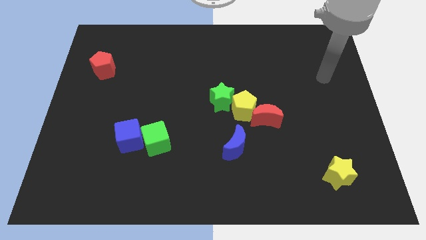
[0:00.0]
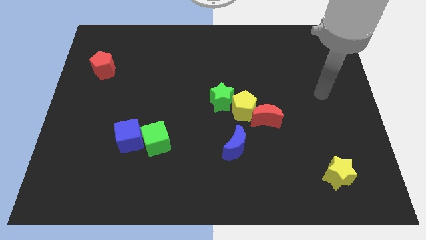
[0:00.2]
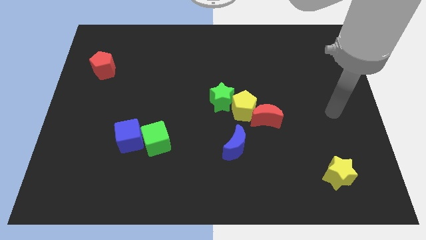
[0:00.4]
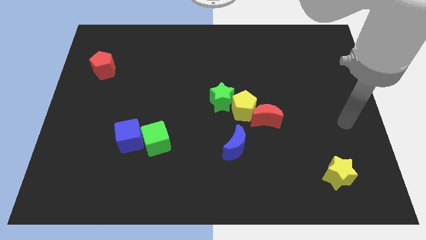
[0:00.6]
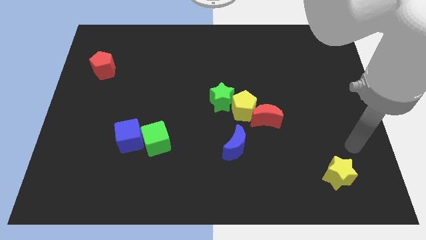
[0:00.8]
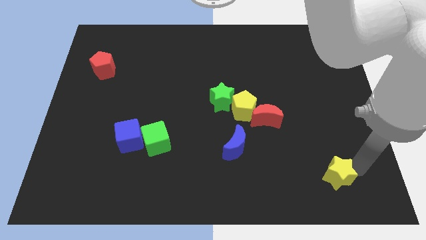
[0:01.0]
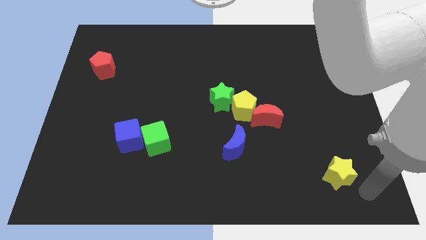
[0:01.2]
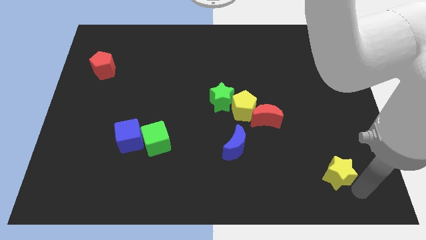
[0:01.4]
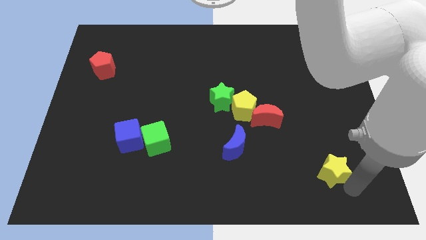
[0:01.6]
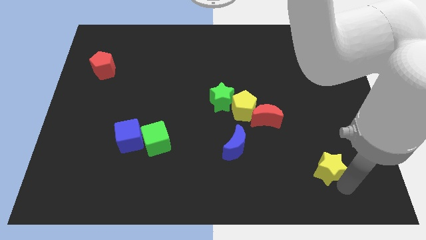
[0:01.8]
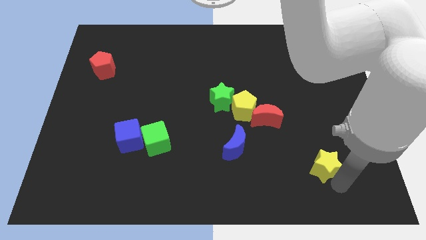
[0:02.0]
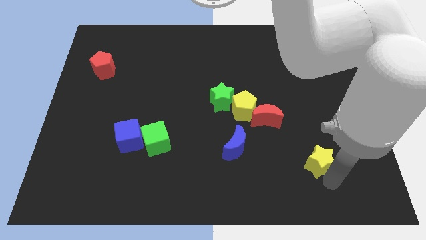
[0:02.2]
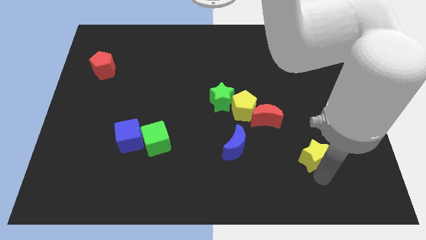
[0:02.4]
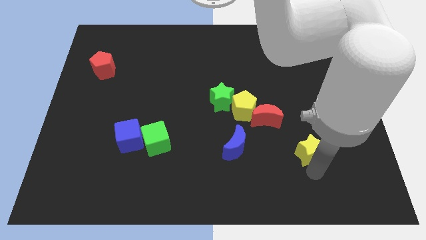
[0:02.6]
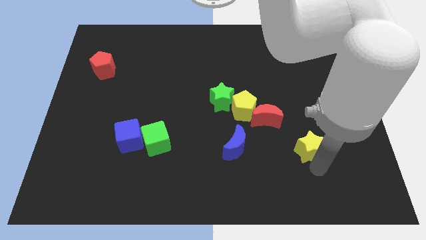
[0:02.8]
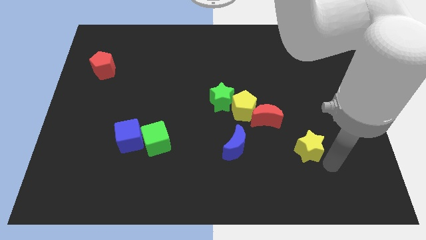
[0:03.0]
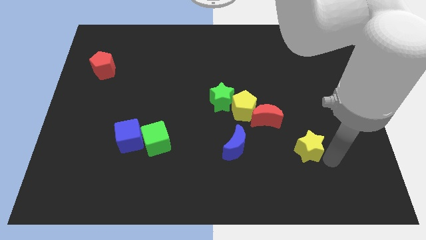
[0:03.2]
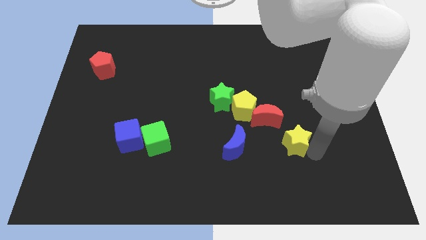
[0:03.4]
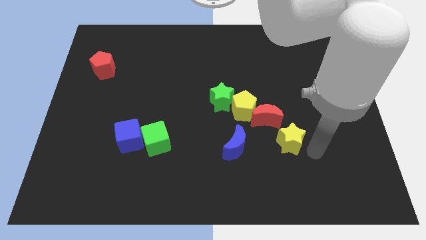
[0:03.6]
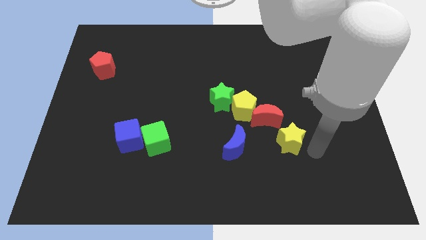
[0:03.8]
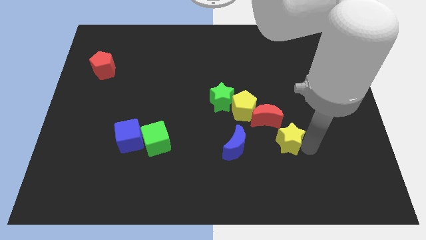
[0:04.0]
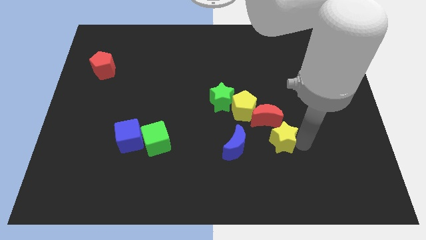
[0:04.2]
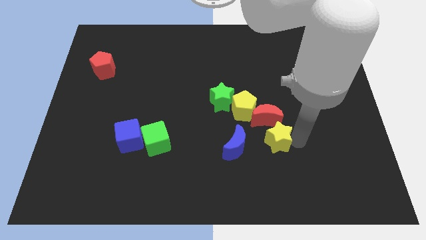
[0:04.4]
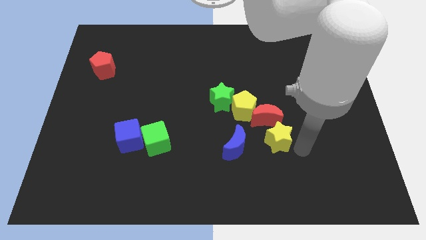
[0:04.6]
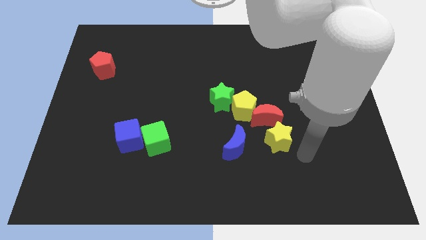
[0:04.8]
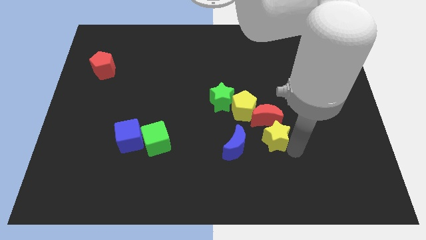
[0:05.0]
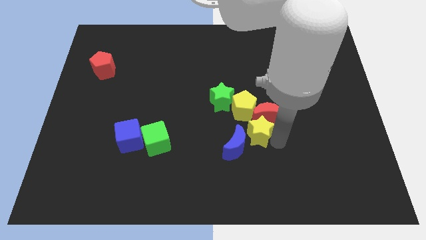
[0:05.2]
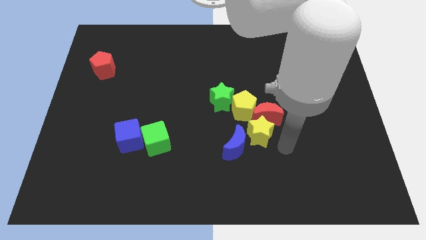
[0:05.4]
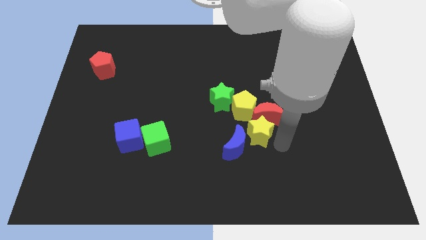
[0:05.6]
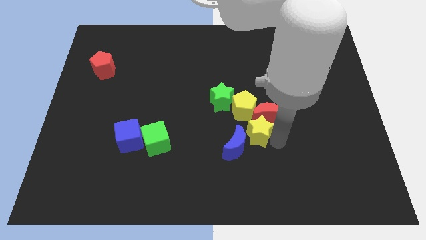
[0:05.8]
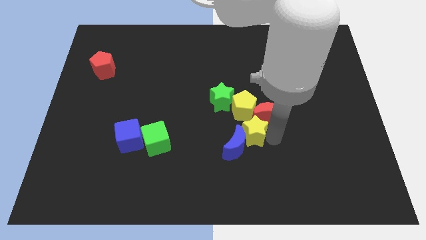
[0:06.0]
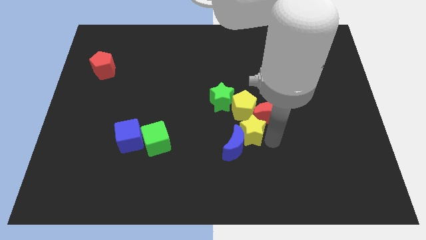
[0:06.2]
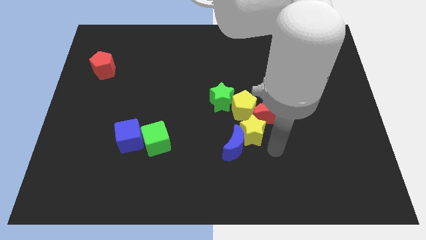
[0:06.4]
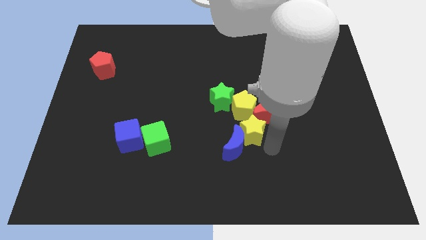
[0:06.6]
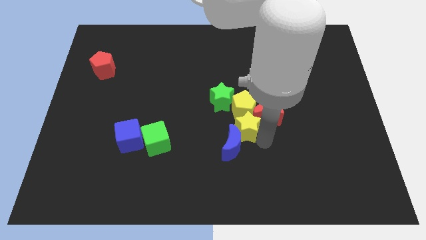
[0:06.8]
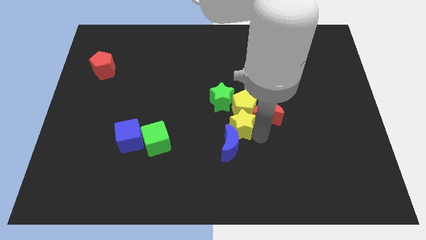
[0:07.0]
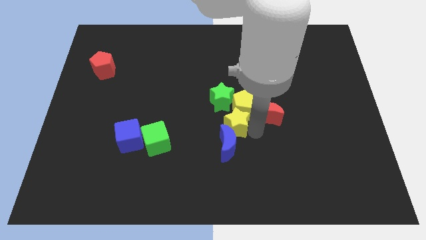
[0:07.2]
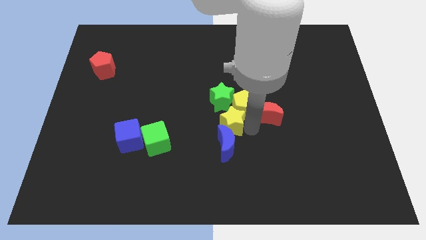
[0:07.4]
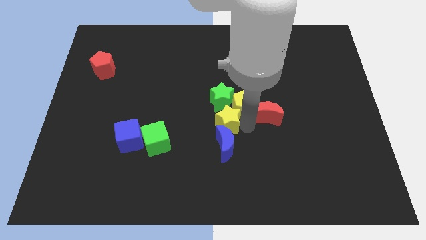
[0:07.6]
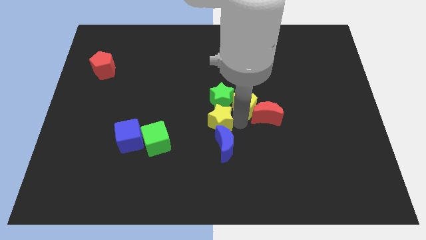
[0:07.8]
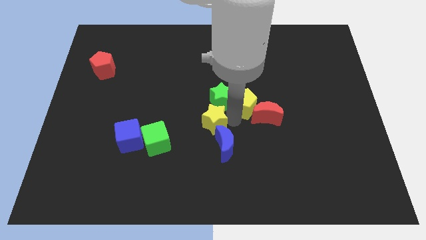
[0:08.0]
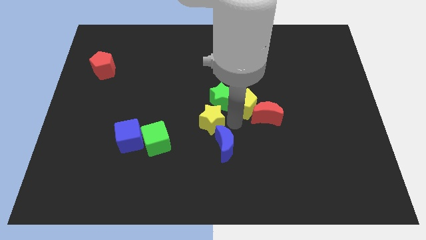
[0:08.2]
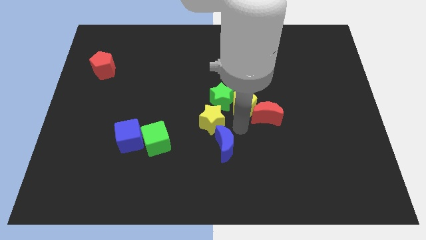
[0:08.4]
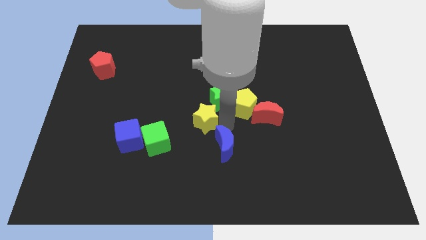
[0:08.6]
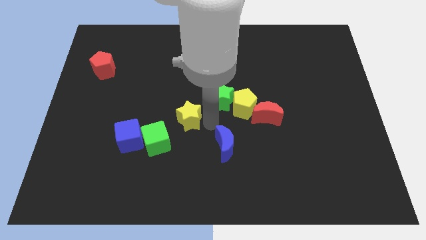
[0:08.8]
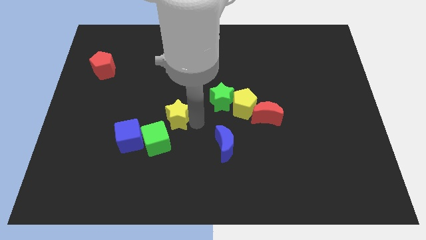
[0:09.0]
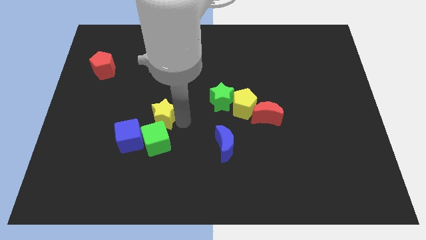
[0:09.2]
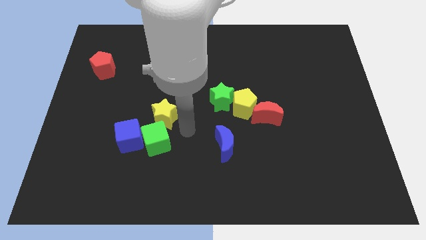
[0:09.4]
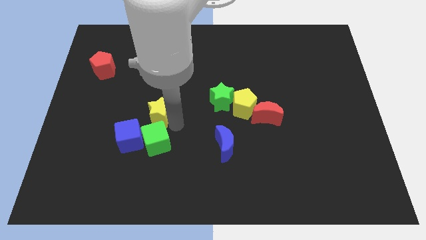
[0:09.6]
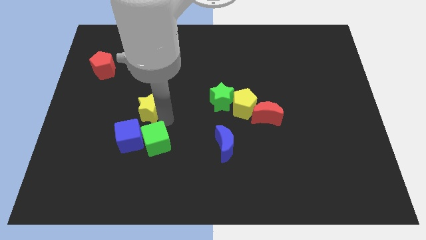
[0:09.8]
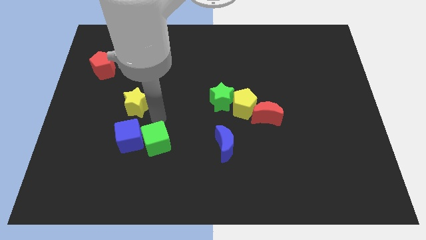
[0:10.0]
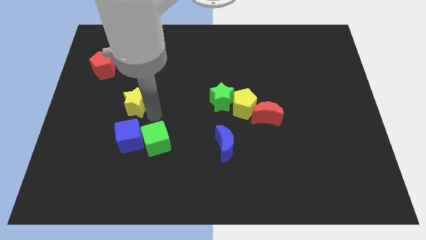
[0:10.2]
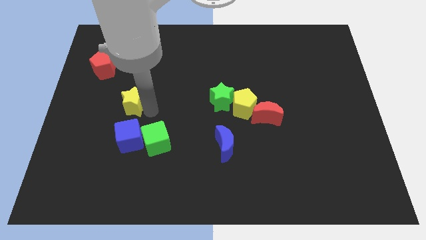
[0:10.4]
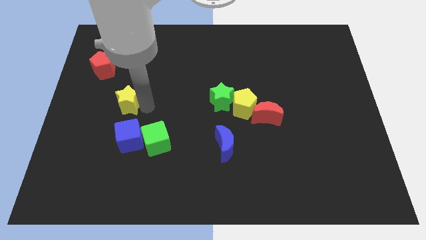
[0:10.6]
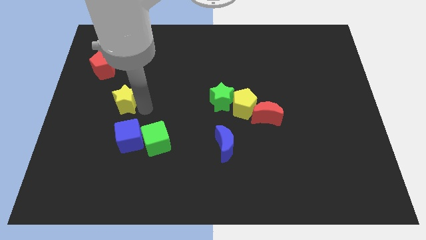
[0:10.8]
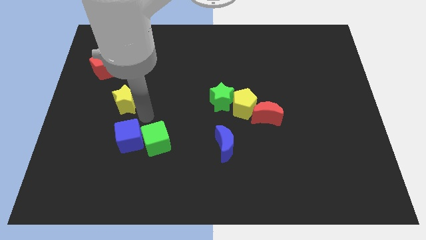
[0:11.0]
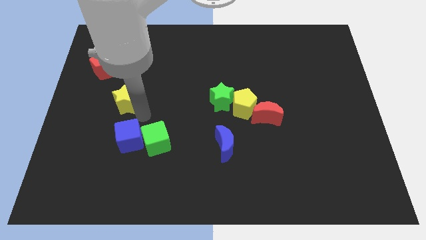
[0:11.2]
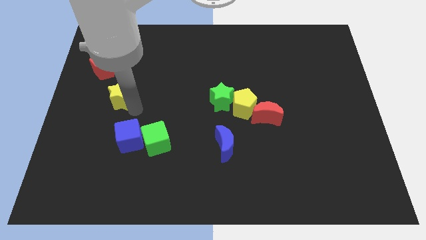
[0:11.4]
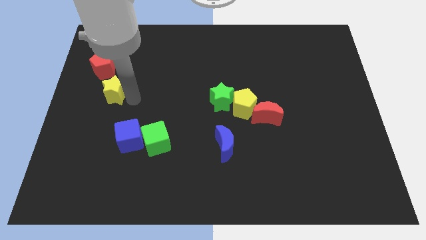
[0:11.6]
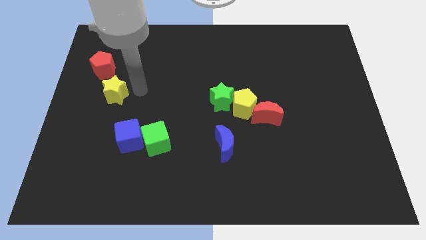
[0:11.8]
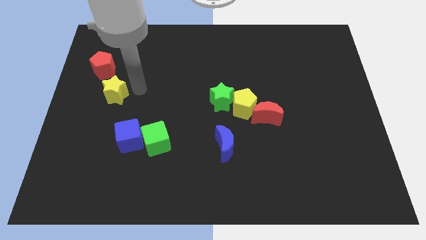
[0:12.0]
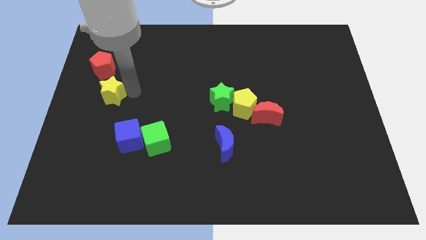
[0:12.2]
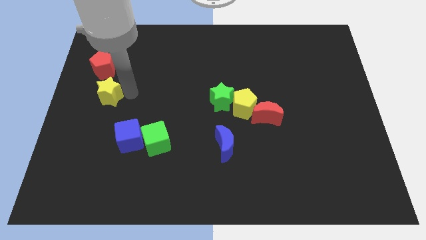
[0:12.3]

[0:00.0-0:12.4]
put the yellow star to the center left

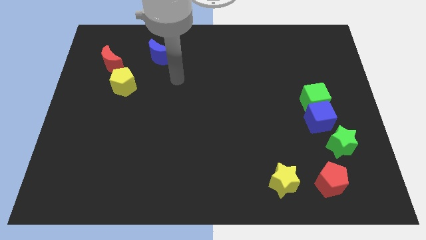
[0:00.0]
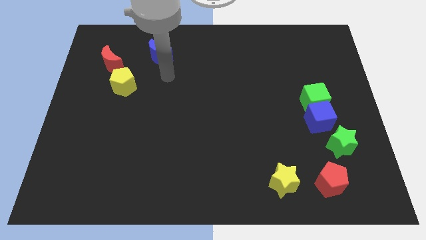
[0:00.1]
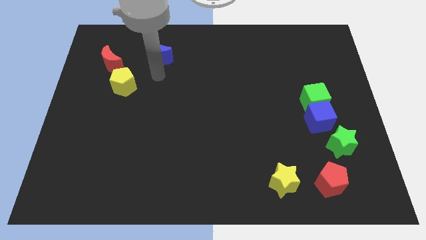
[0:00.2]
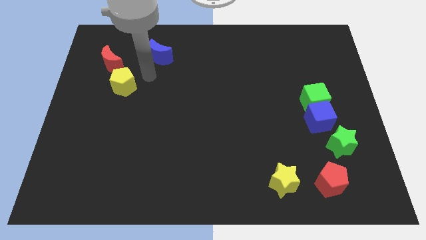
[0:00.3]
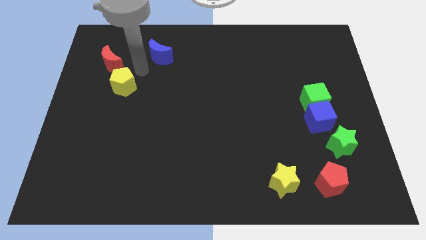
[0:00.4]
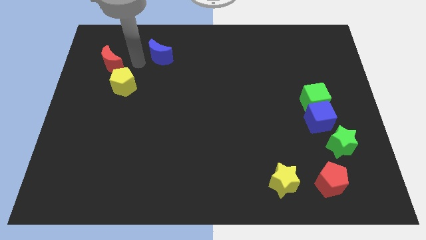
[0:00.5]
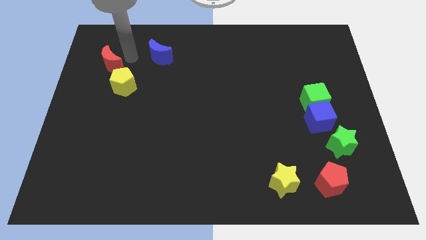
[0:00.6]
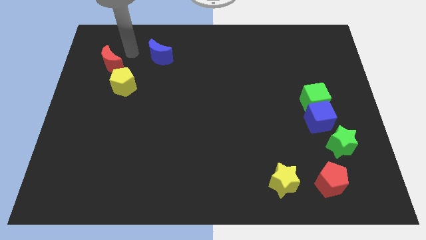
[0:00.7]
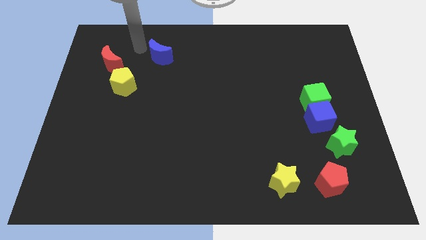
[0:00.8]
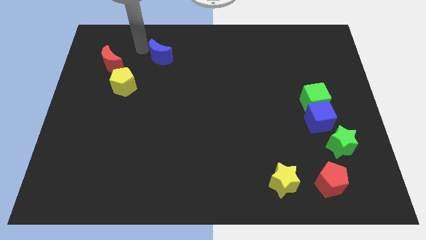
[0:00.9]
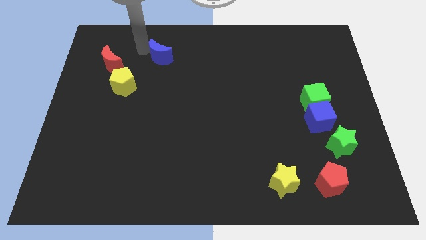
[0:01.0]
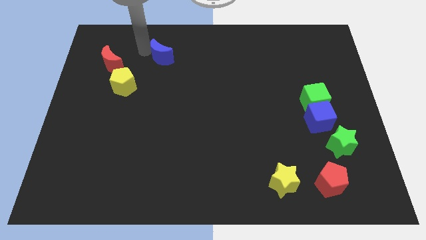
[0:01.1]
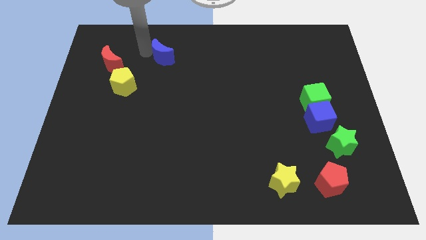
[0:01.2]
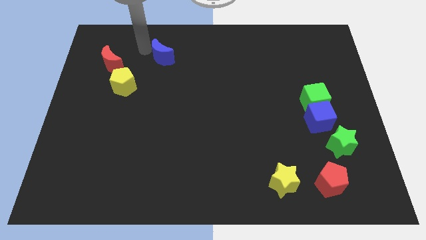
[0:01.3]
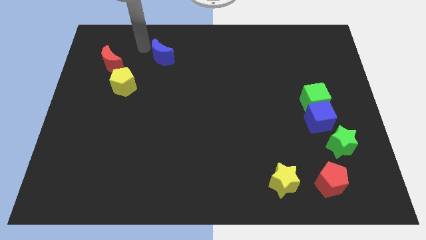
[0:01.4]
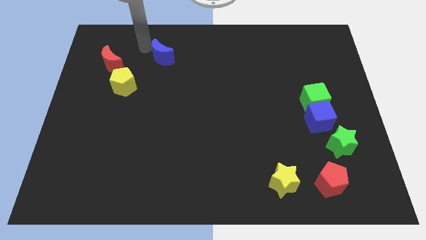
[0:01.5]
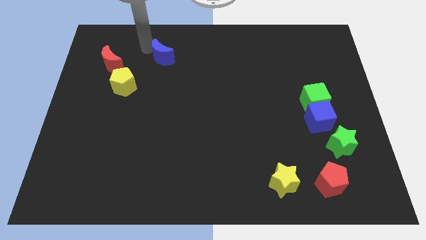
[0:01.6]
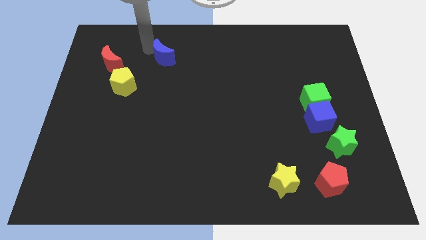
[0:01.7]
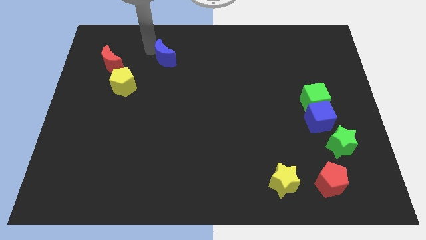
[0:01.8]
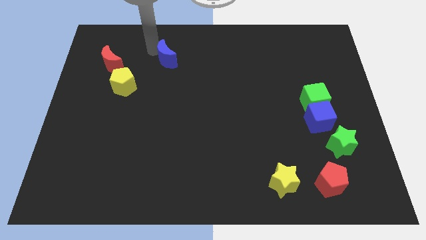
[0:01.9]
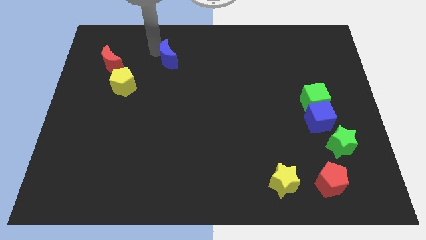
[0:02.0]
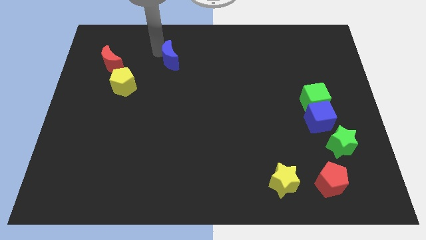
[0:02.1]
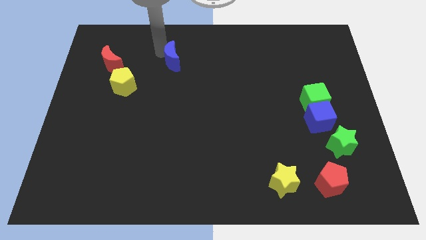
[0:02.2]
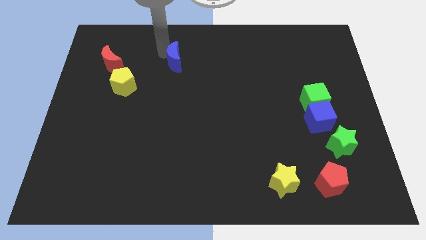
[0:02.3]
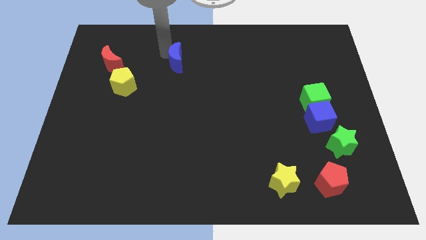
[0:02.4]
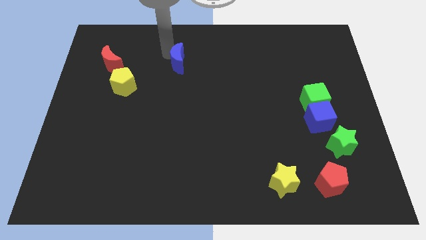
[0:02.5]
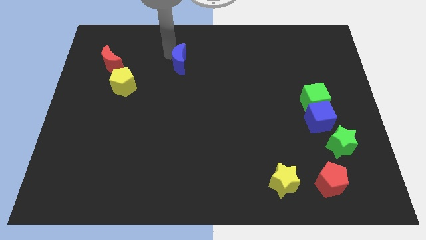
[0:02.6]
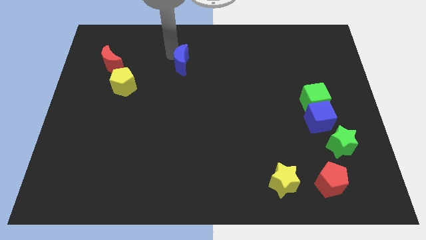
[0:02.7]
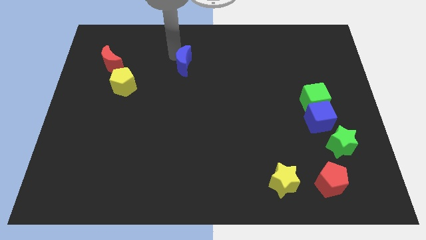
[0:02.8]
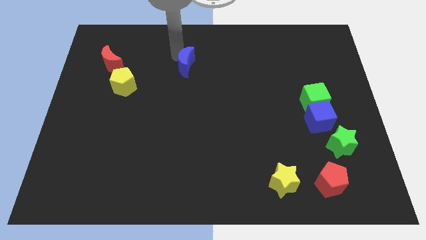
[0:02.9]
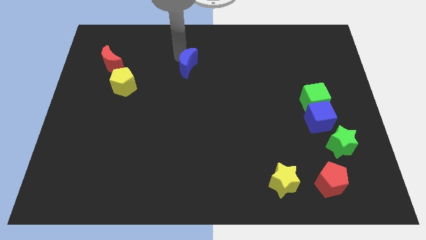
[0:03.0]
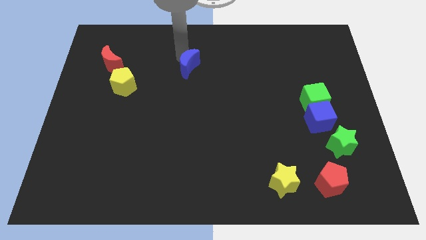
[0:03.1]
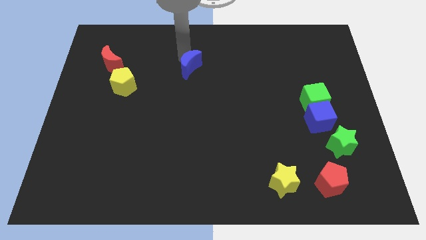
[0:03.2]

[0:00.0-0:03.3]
move the blue moon to the middle
